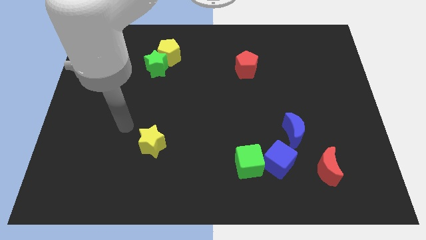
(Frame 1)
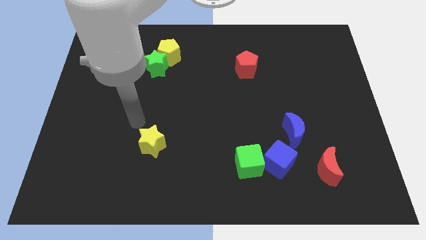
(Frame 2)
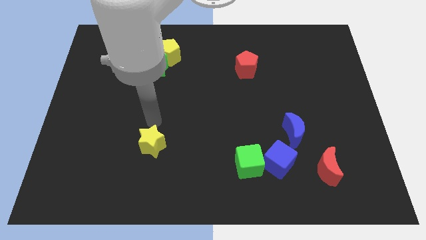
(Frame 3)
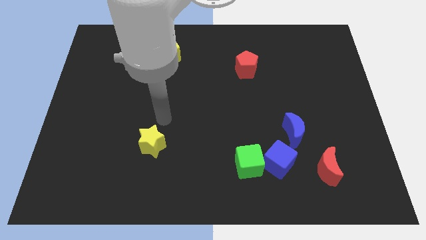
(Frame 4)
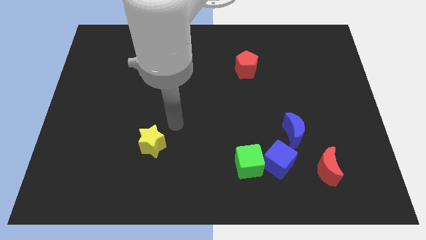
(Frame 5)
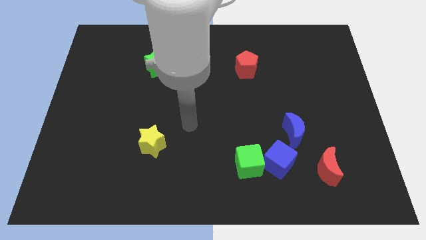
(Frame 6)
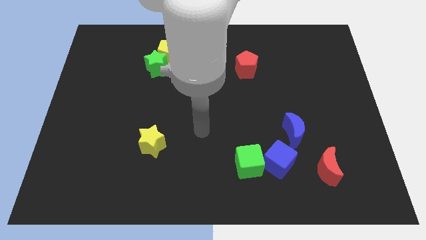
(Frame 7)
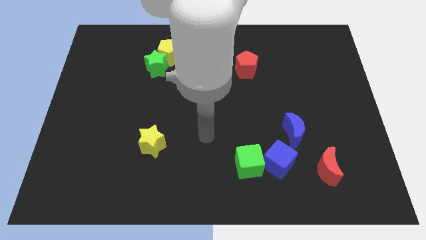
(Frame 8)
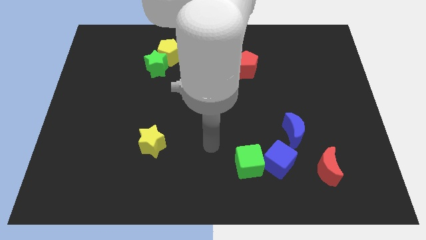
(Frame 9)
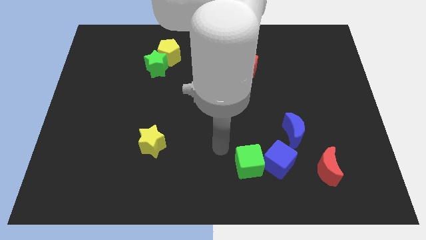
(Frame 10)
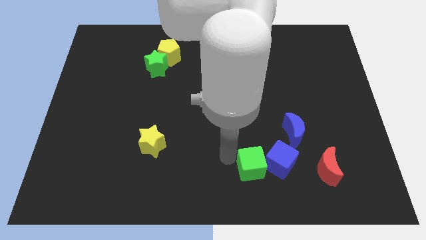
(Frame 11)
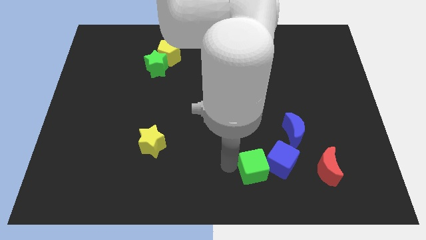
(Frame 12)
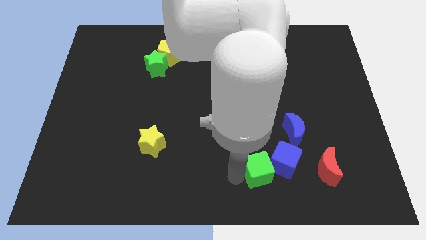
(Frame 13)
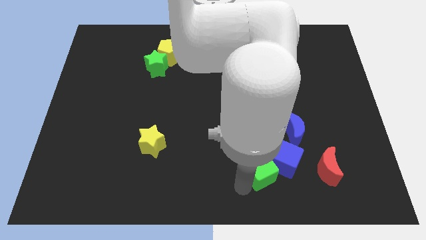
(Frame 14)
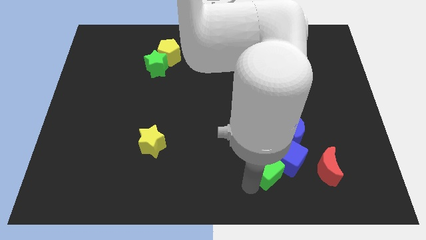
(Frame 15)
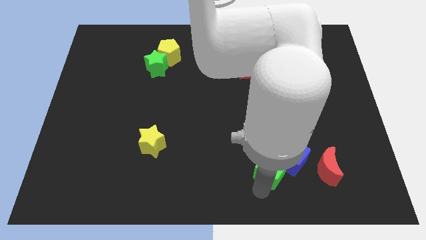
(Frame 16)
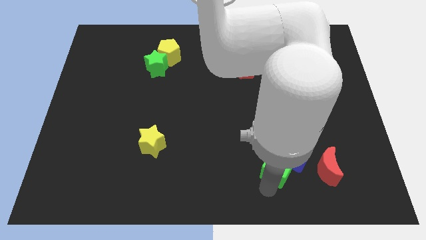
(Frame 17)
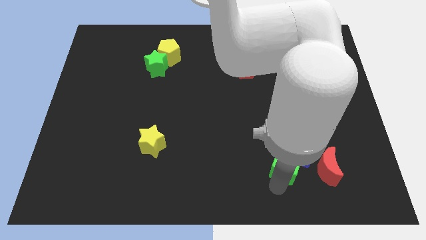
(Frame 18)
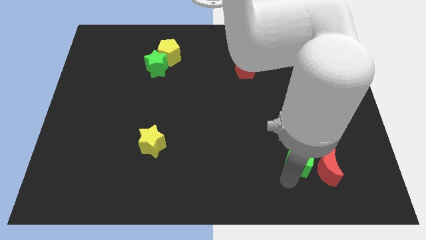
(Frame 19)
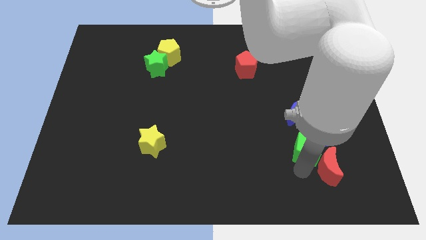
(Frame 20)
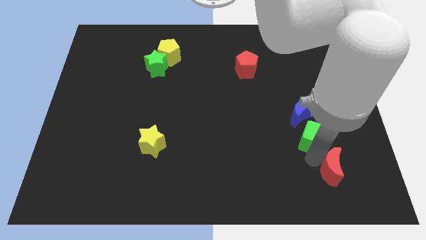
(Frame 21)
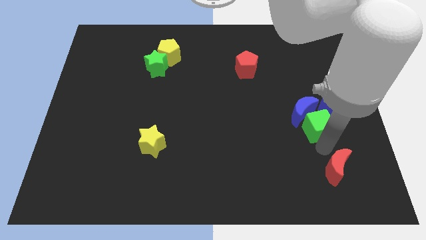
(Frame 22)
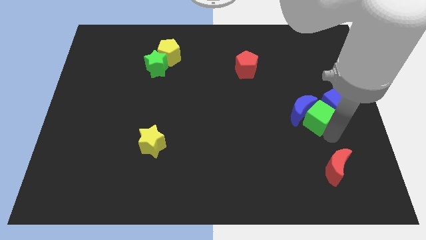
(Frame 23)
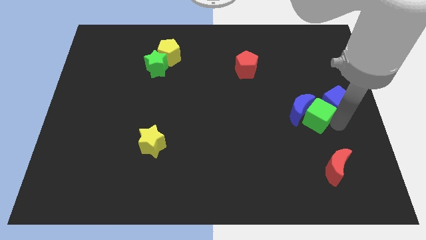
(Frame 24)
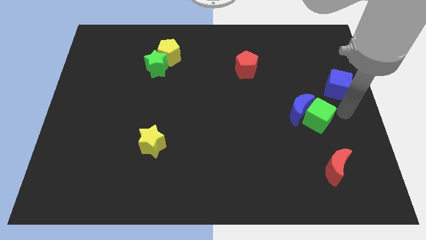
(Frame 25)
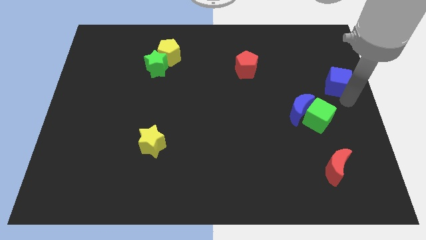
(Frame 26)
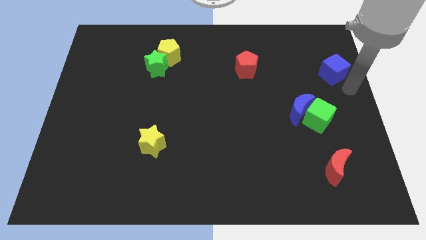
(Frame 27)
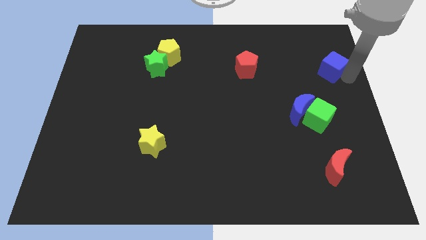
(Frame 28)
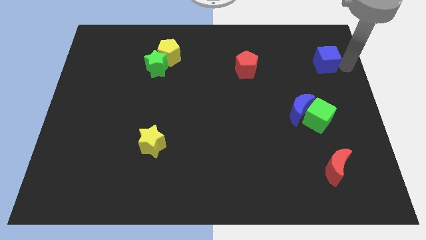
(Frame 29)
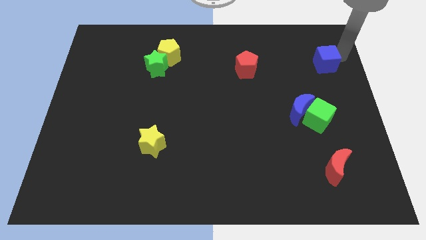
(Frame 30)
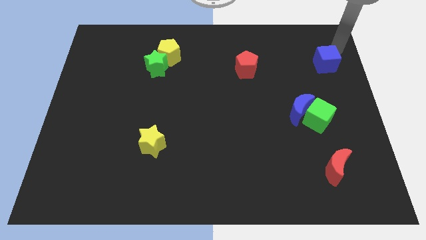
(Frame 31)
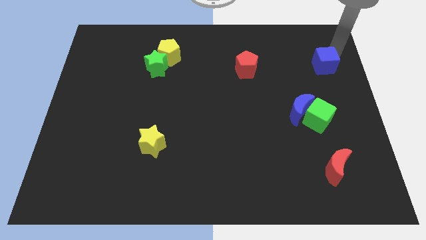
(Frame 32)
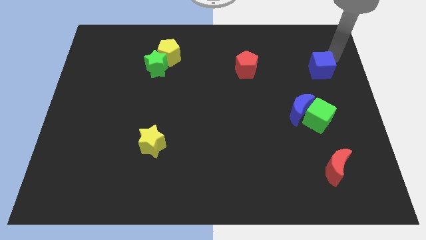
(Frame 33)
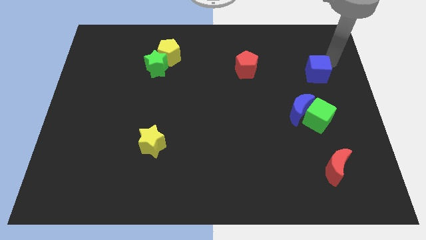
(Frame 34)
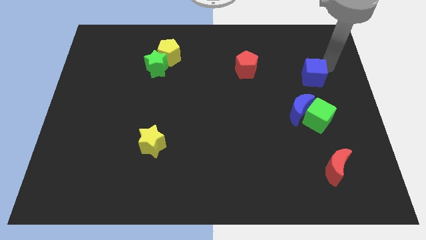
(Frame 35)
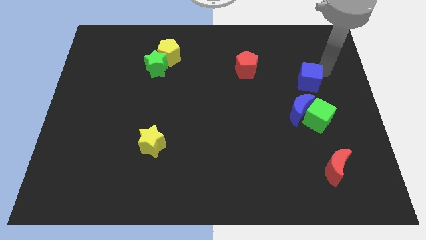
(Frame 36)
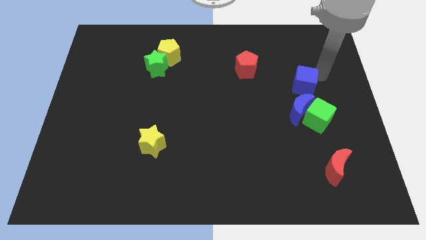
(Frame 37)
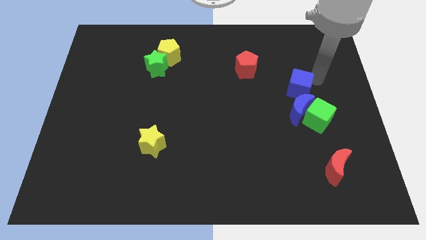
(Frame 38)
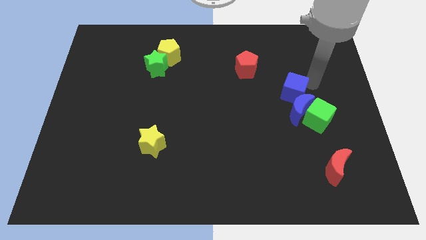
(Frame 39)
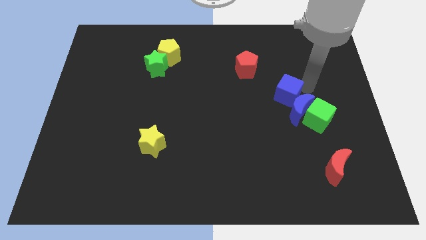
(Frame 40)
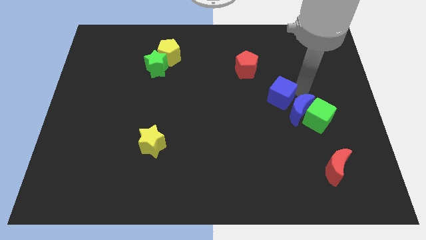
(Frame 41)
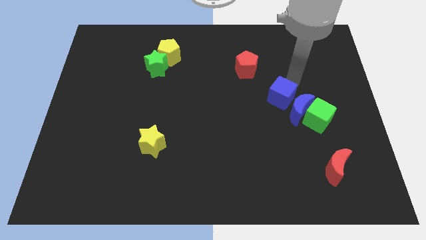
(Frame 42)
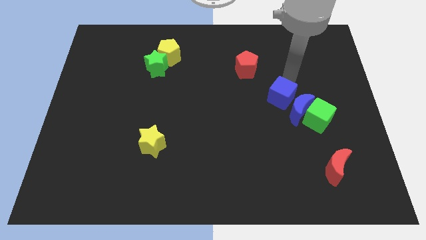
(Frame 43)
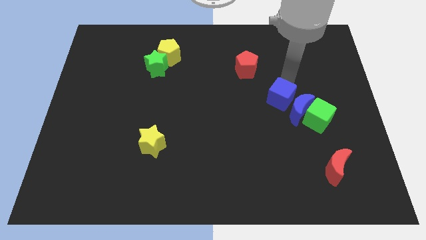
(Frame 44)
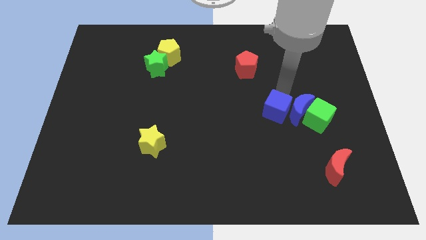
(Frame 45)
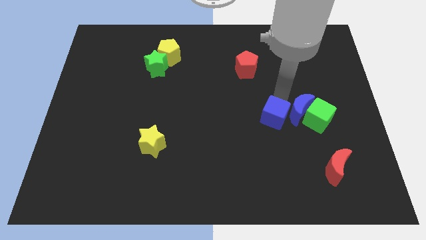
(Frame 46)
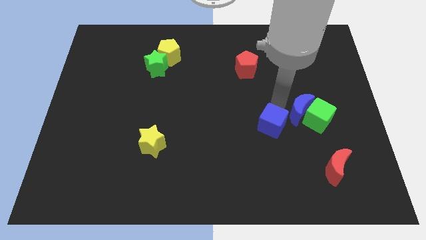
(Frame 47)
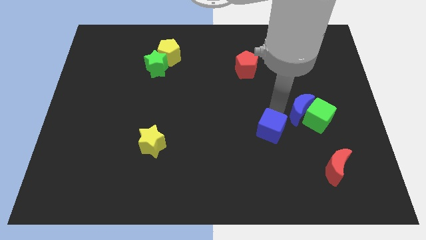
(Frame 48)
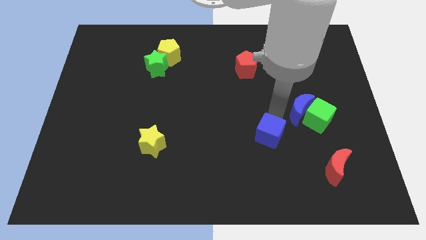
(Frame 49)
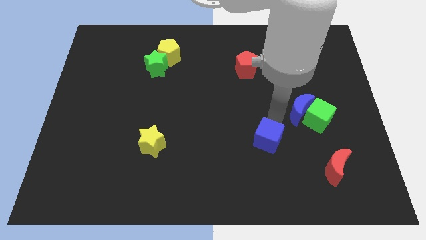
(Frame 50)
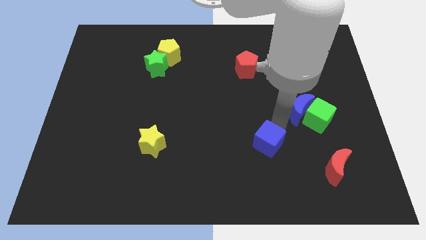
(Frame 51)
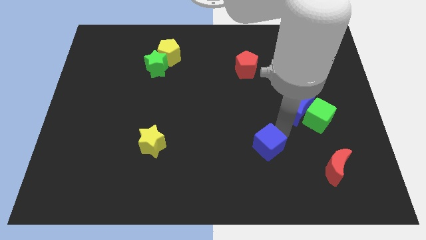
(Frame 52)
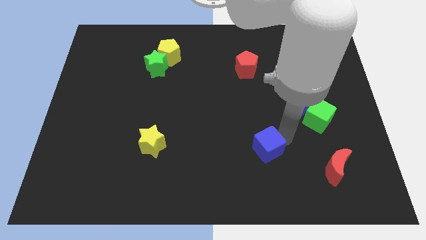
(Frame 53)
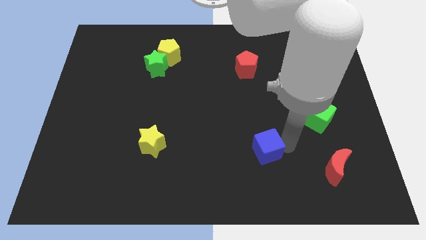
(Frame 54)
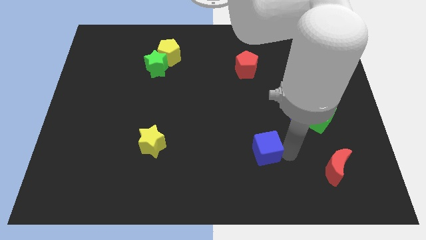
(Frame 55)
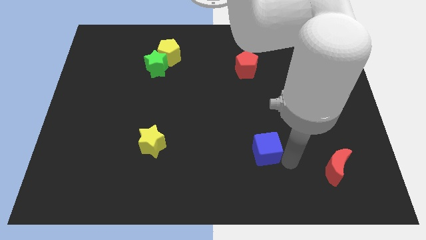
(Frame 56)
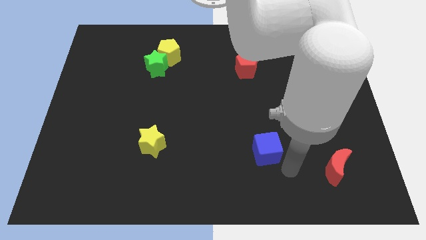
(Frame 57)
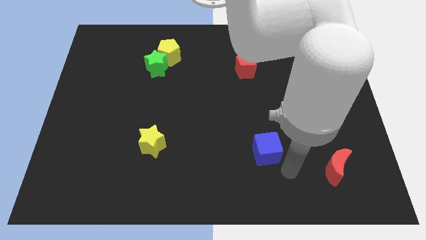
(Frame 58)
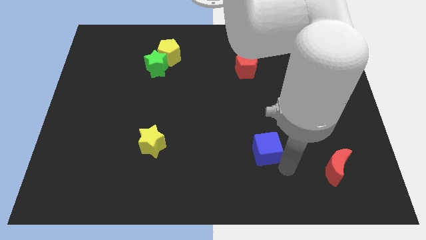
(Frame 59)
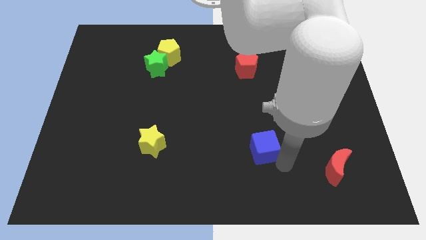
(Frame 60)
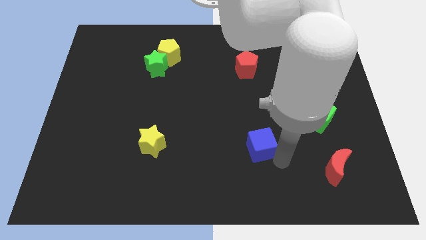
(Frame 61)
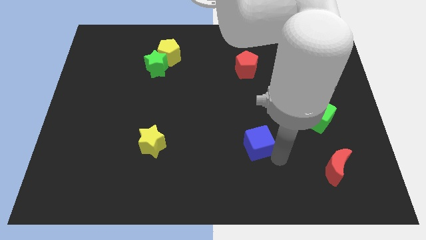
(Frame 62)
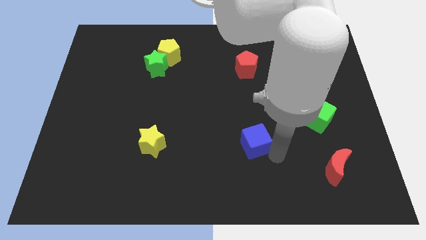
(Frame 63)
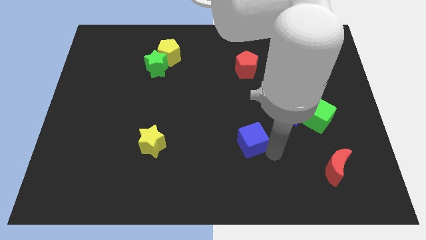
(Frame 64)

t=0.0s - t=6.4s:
slide the blue cube upwards and to the left diagonally slightly

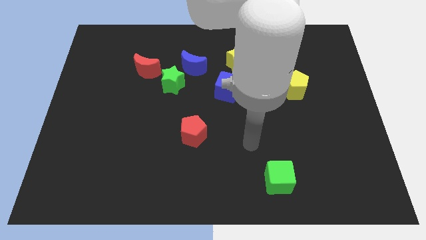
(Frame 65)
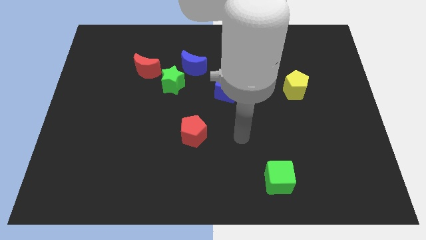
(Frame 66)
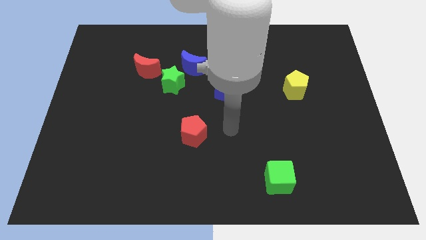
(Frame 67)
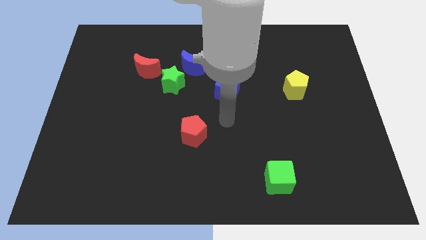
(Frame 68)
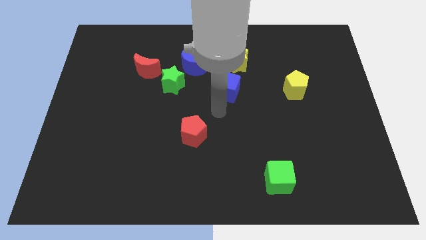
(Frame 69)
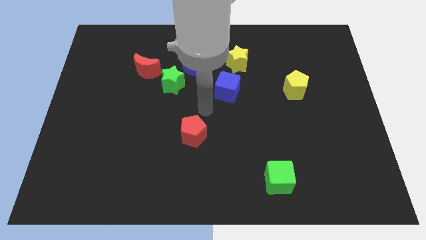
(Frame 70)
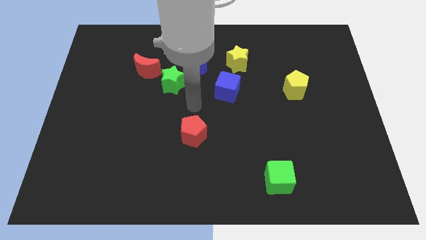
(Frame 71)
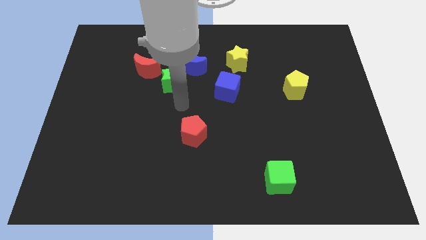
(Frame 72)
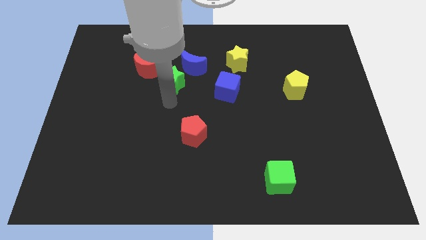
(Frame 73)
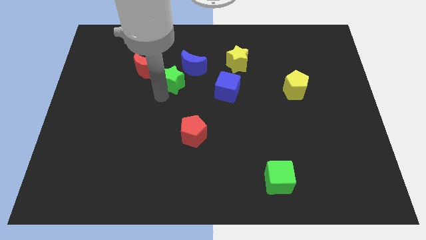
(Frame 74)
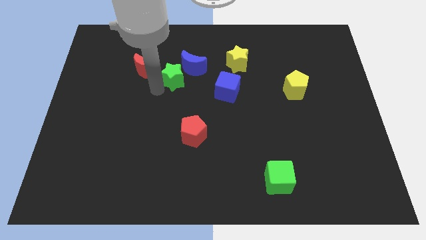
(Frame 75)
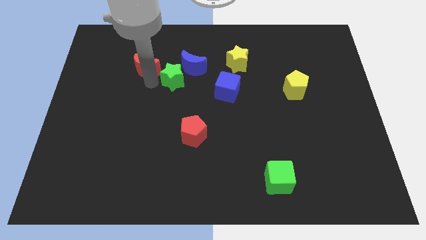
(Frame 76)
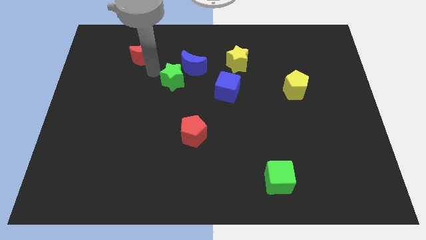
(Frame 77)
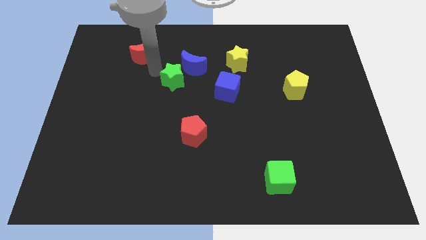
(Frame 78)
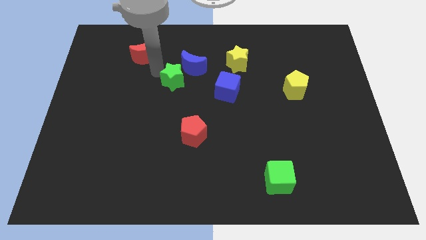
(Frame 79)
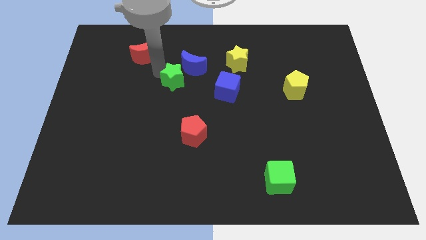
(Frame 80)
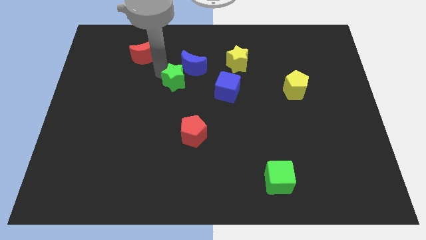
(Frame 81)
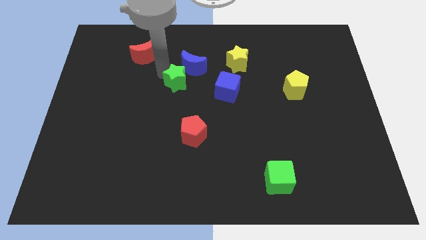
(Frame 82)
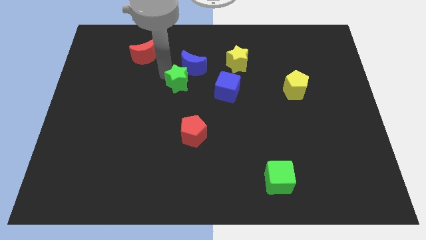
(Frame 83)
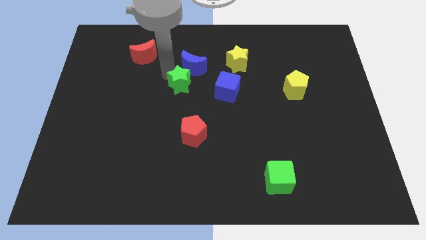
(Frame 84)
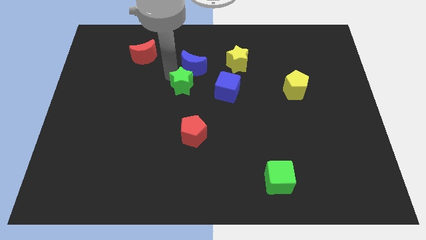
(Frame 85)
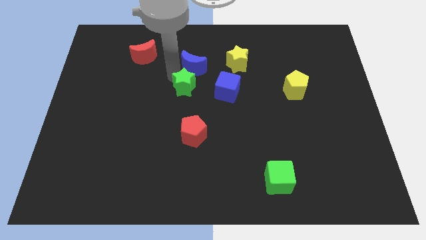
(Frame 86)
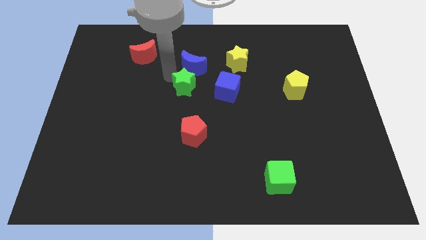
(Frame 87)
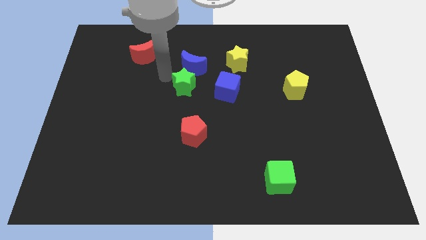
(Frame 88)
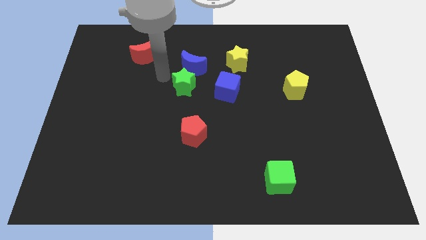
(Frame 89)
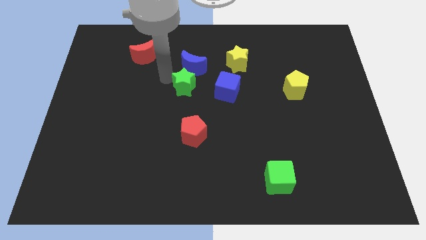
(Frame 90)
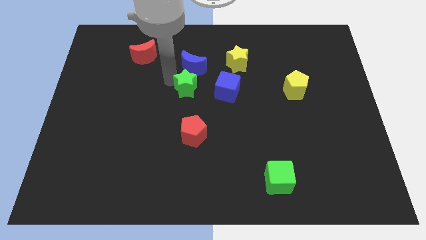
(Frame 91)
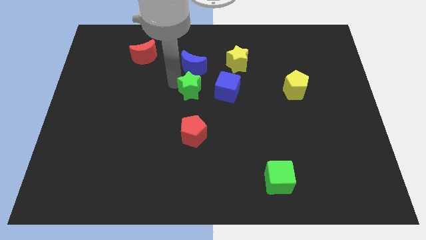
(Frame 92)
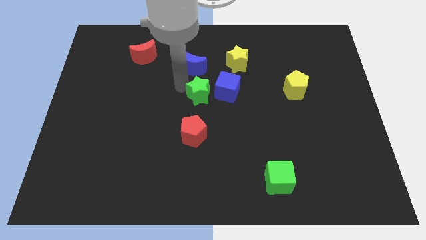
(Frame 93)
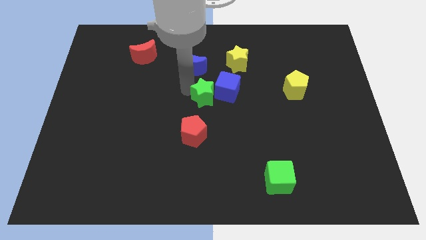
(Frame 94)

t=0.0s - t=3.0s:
slightly move the green star to the right
